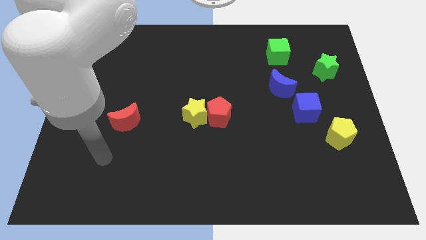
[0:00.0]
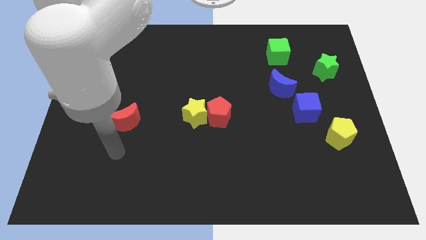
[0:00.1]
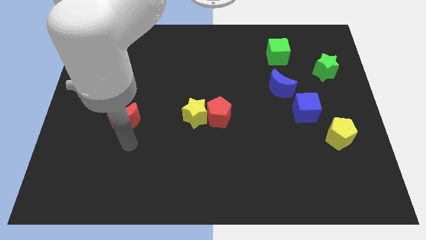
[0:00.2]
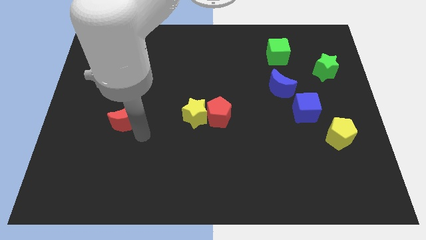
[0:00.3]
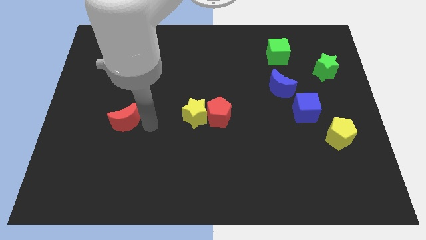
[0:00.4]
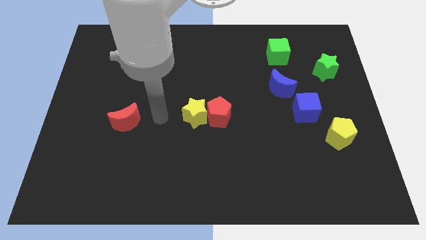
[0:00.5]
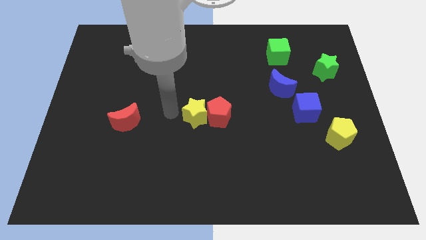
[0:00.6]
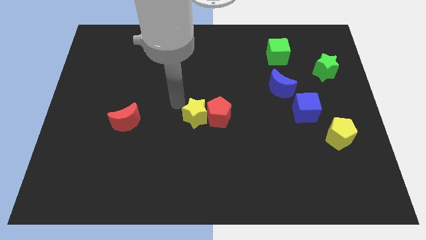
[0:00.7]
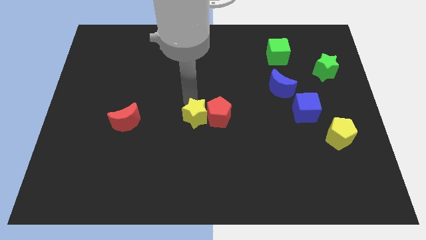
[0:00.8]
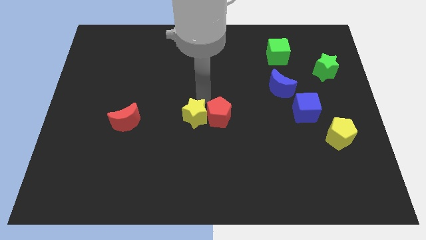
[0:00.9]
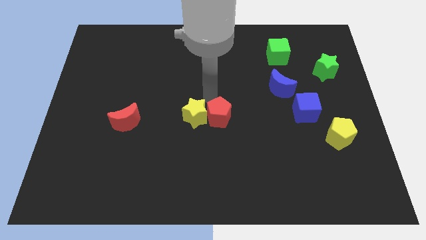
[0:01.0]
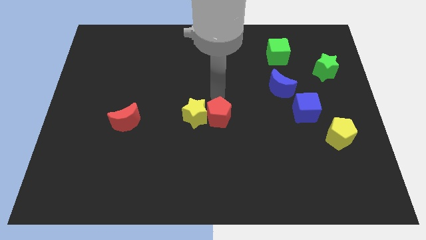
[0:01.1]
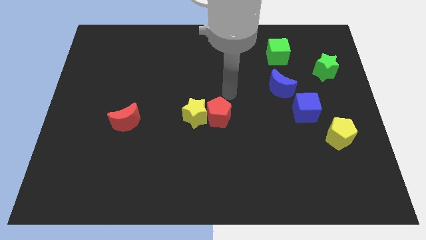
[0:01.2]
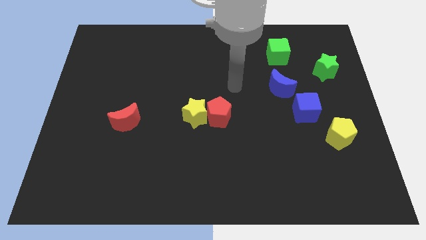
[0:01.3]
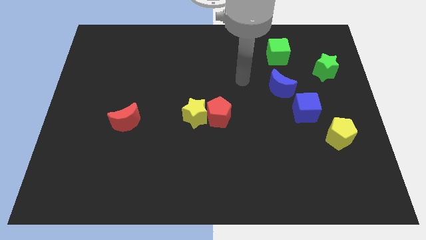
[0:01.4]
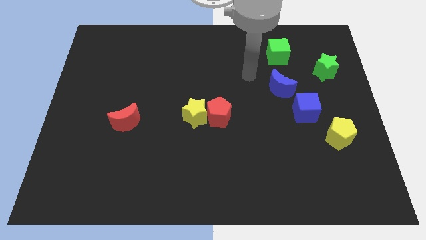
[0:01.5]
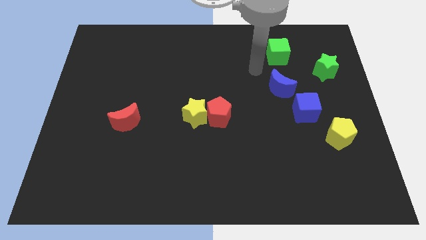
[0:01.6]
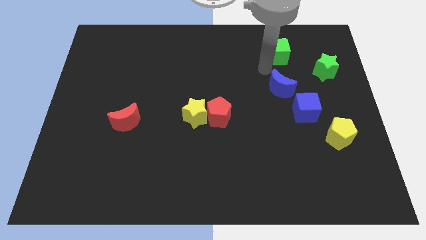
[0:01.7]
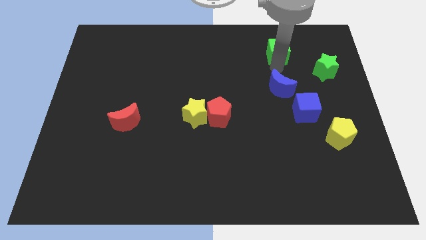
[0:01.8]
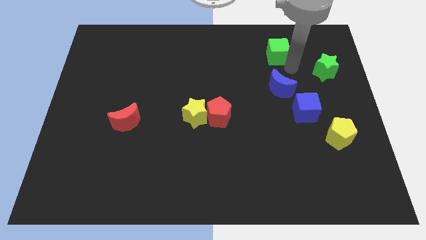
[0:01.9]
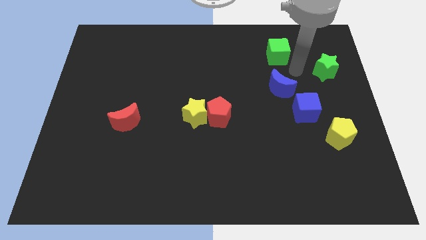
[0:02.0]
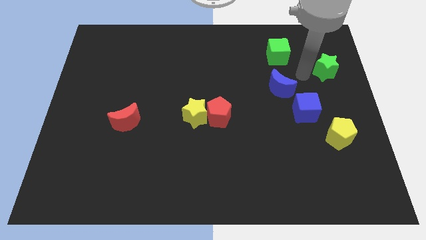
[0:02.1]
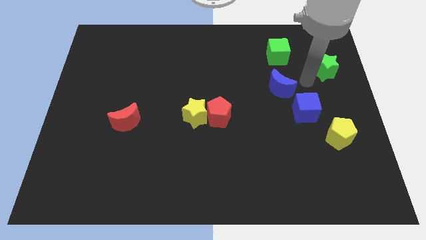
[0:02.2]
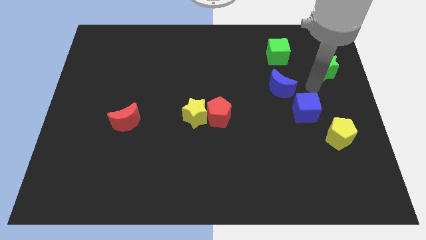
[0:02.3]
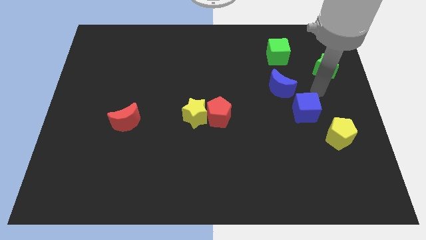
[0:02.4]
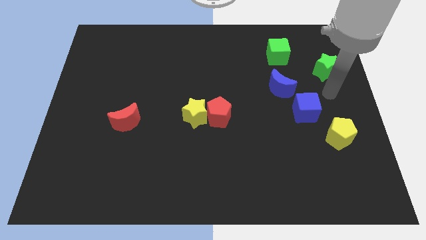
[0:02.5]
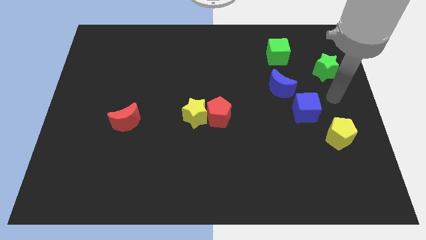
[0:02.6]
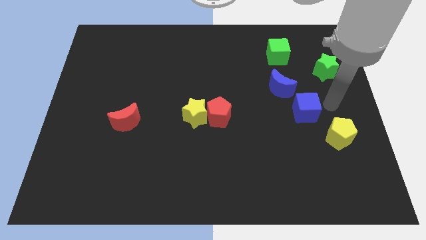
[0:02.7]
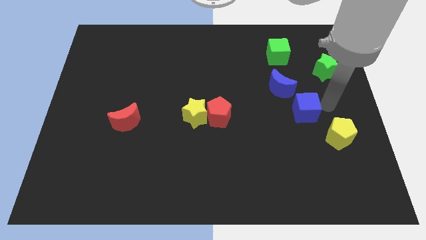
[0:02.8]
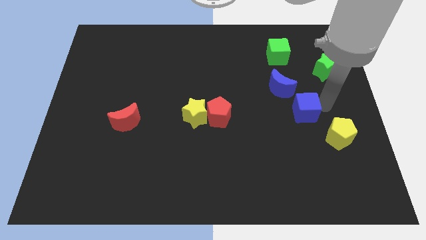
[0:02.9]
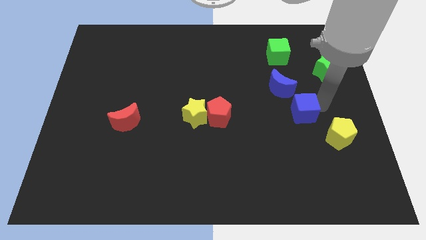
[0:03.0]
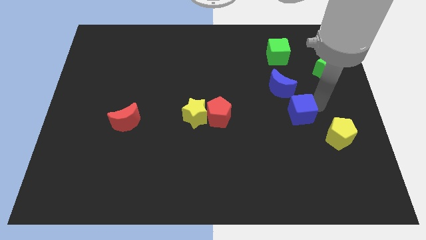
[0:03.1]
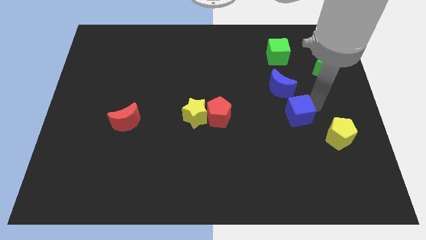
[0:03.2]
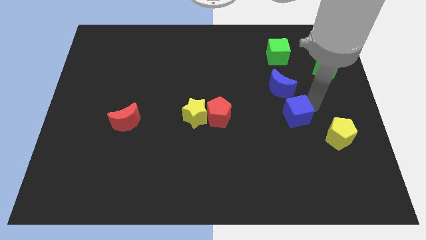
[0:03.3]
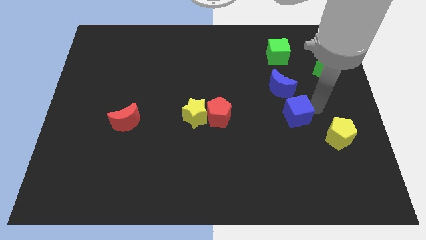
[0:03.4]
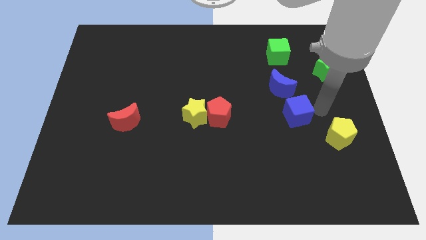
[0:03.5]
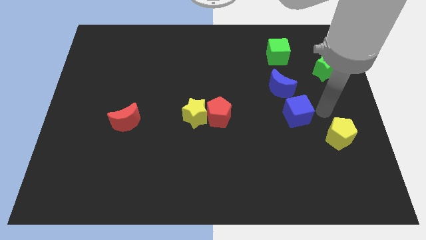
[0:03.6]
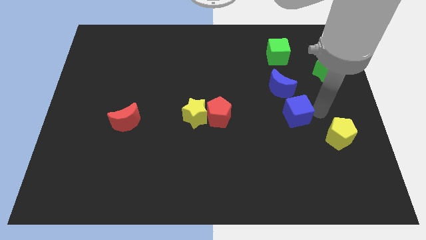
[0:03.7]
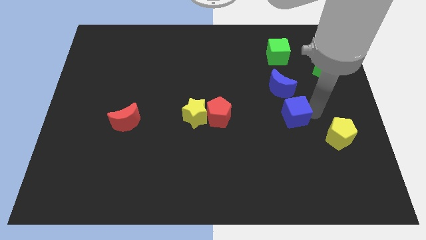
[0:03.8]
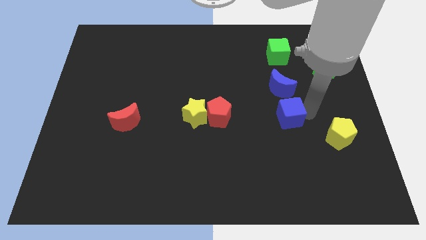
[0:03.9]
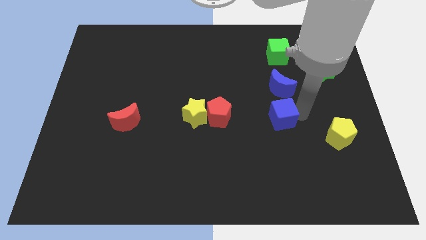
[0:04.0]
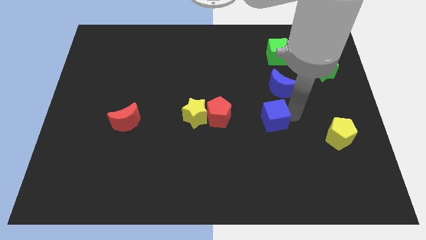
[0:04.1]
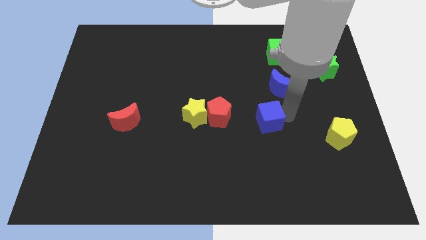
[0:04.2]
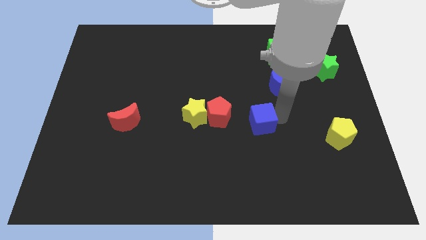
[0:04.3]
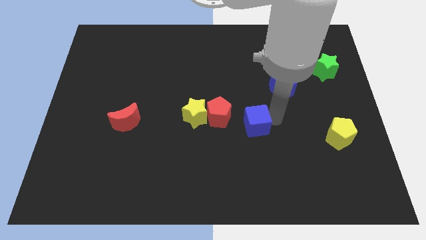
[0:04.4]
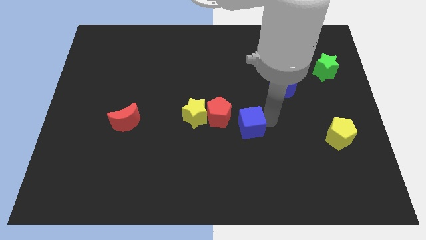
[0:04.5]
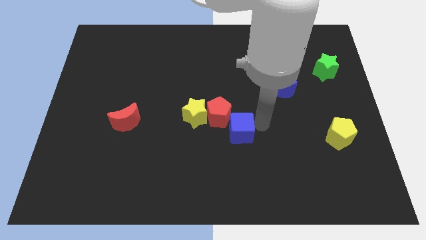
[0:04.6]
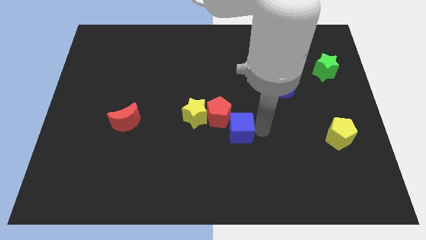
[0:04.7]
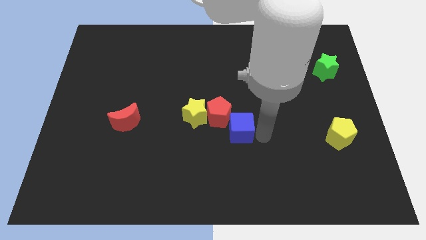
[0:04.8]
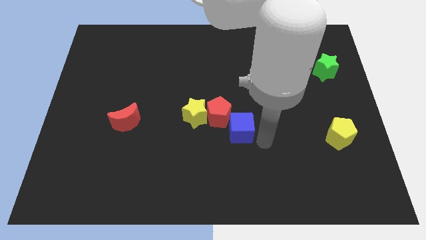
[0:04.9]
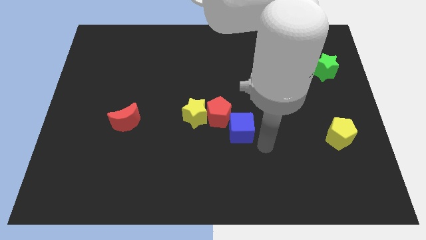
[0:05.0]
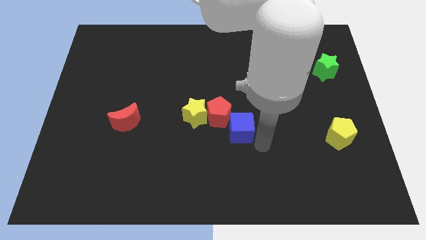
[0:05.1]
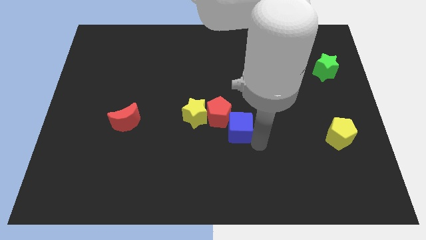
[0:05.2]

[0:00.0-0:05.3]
slide the blue cube close to the red pentagon

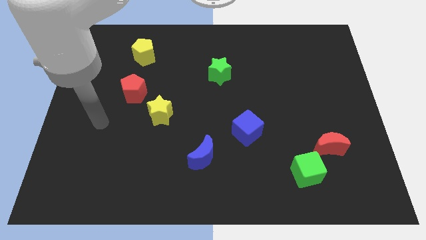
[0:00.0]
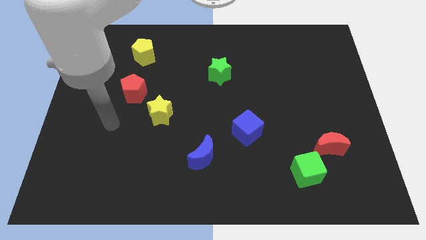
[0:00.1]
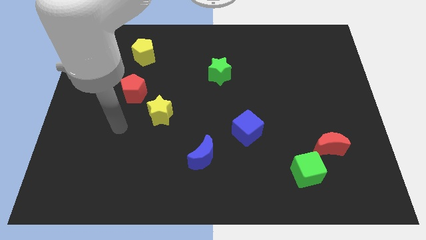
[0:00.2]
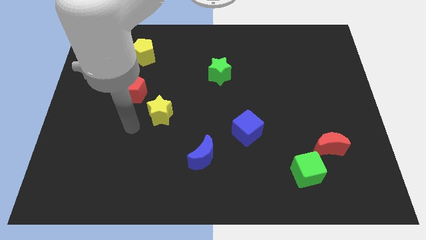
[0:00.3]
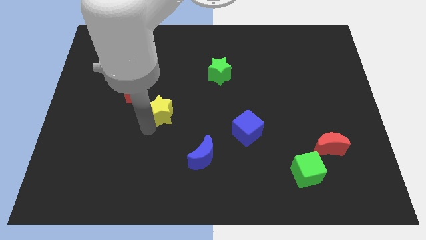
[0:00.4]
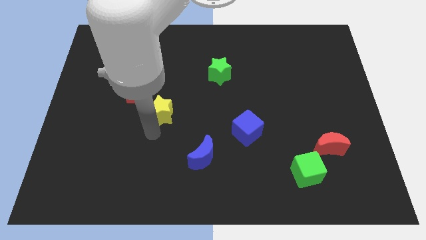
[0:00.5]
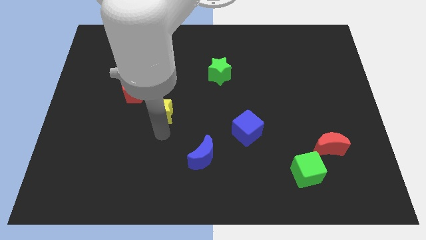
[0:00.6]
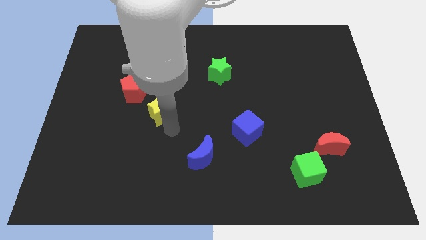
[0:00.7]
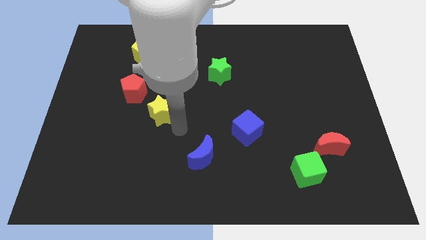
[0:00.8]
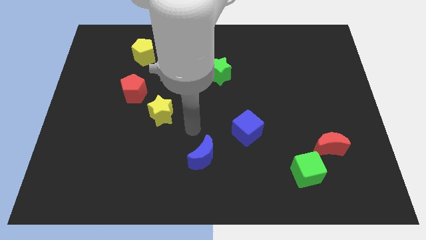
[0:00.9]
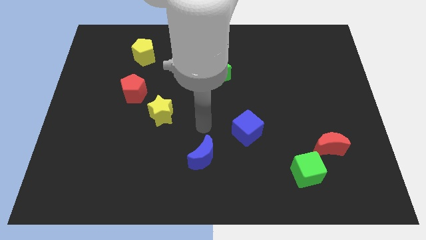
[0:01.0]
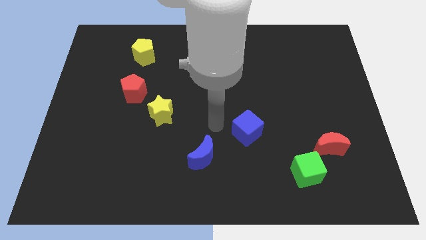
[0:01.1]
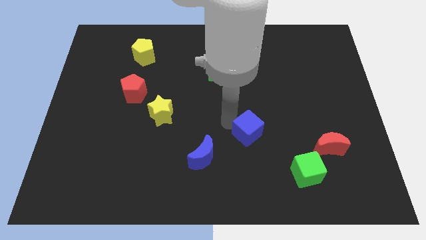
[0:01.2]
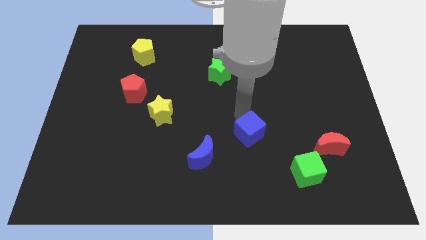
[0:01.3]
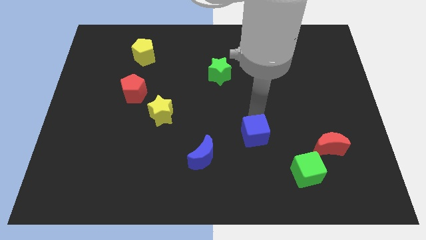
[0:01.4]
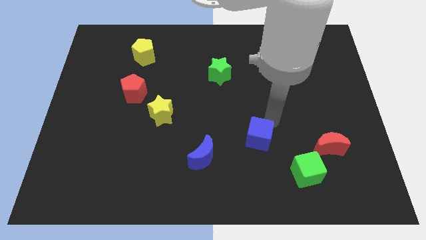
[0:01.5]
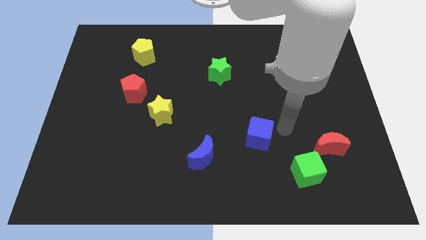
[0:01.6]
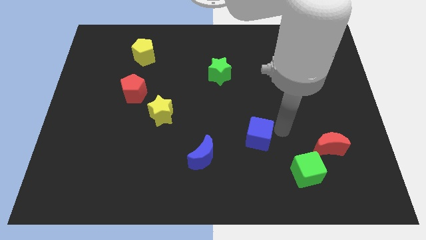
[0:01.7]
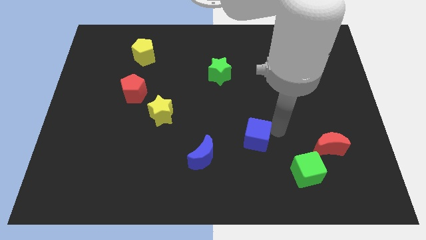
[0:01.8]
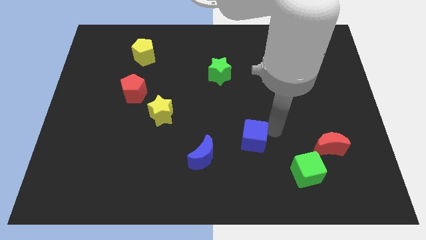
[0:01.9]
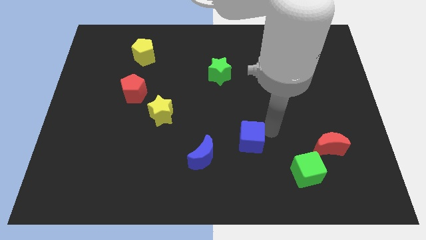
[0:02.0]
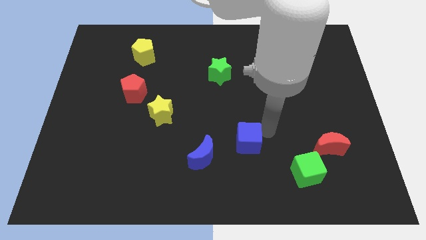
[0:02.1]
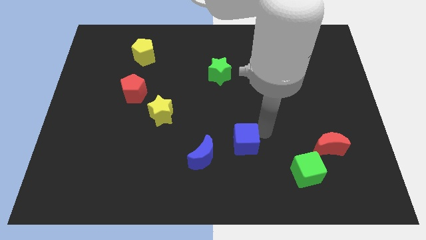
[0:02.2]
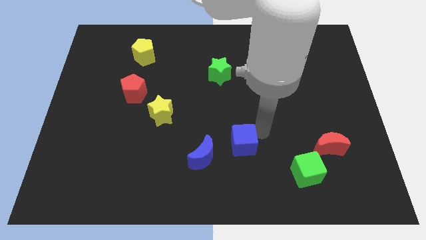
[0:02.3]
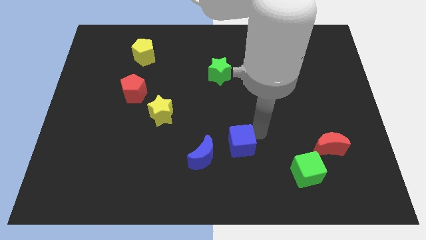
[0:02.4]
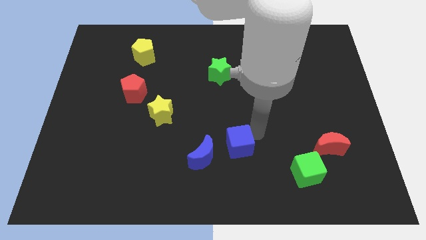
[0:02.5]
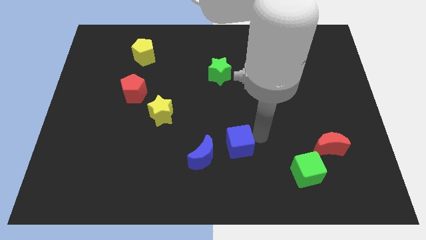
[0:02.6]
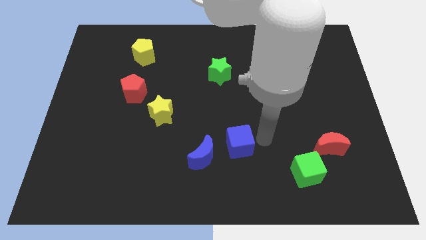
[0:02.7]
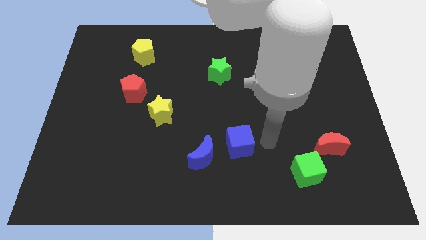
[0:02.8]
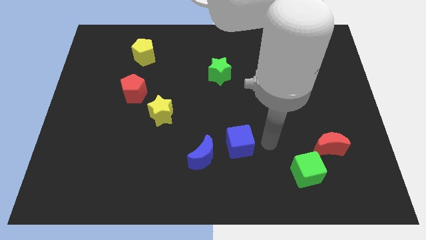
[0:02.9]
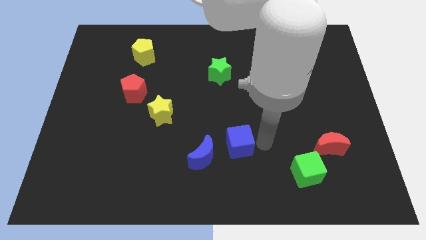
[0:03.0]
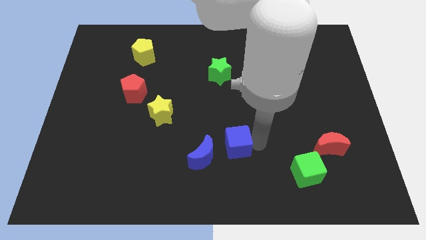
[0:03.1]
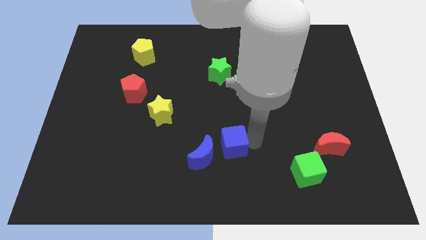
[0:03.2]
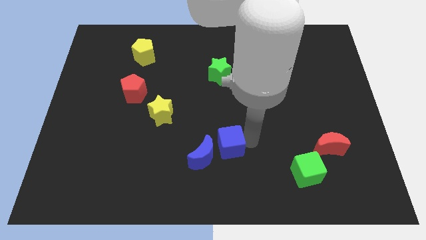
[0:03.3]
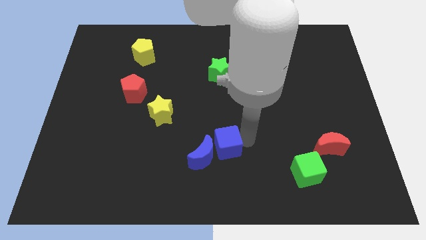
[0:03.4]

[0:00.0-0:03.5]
move the blue cube next to the blue moon
